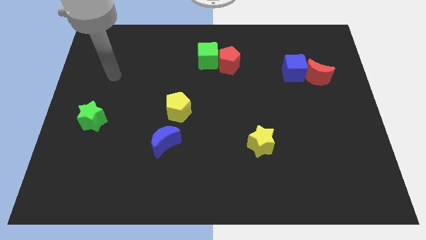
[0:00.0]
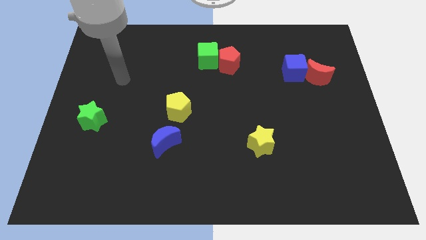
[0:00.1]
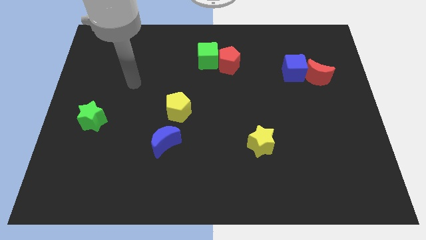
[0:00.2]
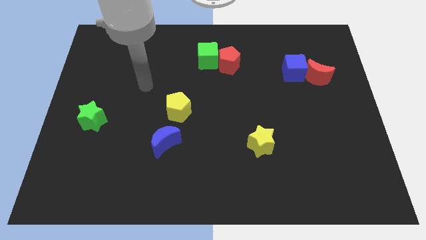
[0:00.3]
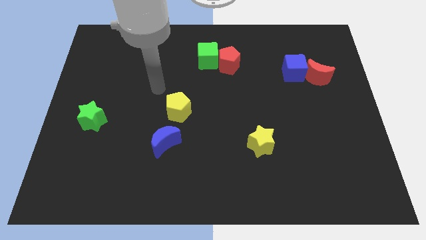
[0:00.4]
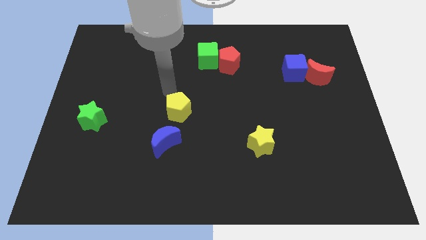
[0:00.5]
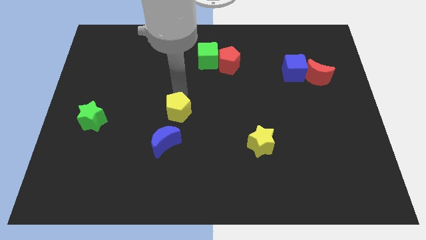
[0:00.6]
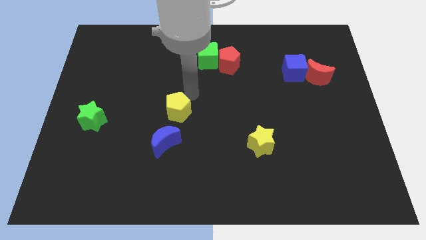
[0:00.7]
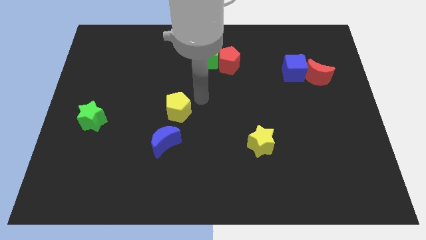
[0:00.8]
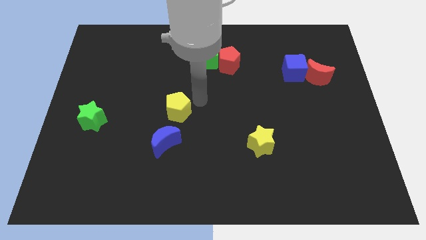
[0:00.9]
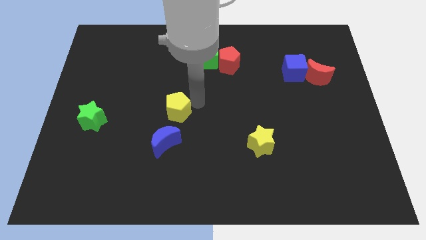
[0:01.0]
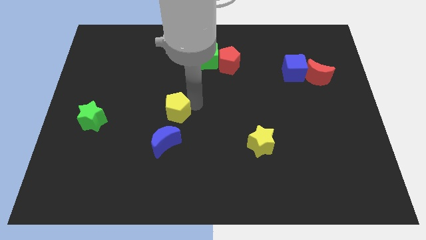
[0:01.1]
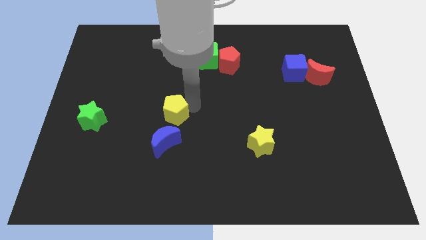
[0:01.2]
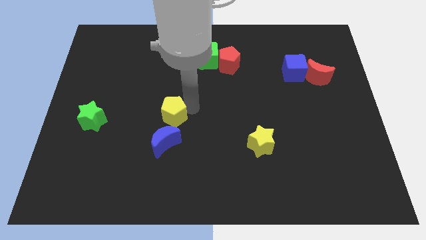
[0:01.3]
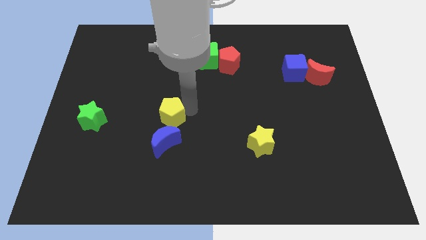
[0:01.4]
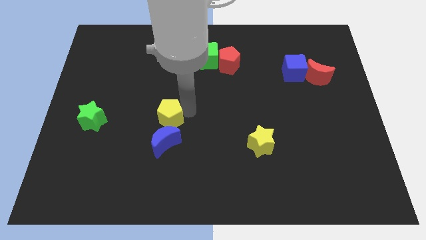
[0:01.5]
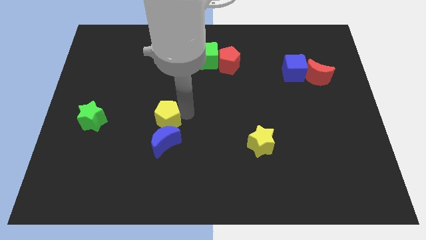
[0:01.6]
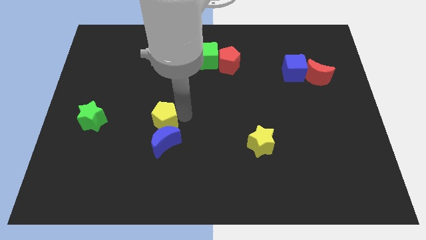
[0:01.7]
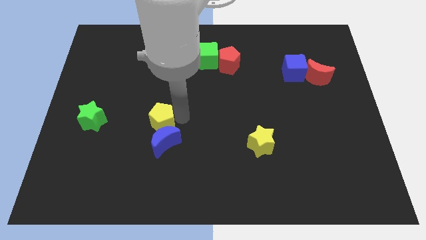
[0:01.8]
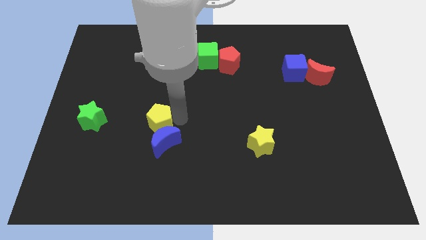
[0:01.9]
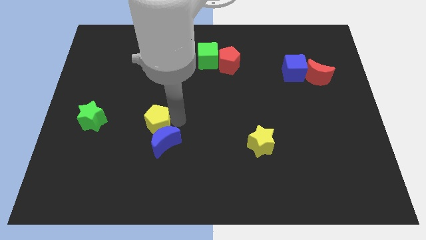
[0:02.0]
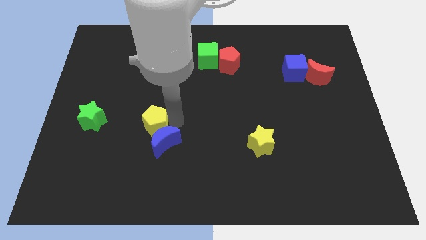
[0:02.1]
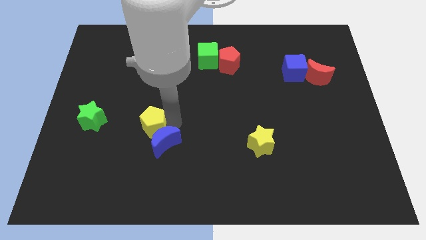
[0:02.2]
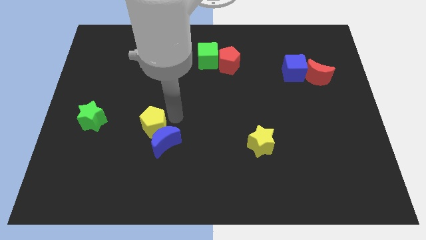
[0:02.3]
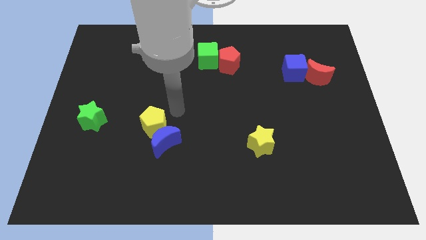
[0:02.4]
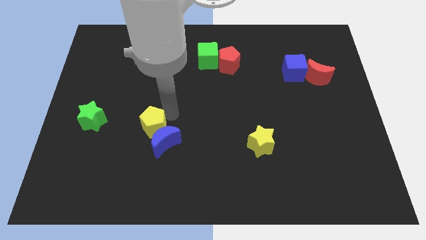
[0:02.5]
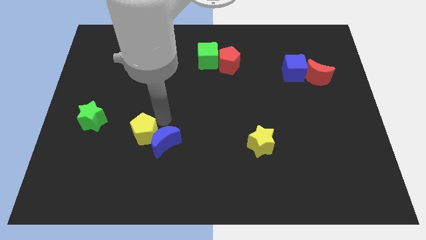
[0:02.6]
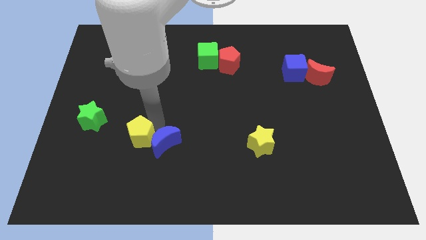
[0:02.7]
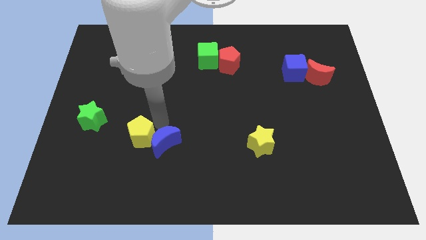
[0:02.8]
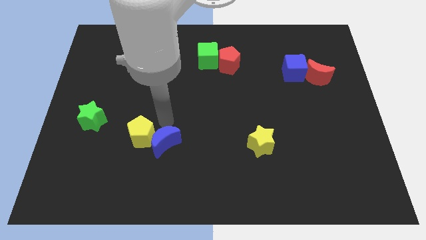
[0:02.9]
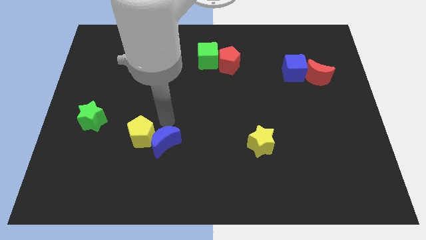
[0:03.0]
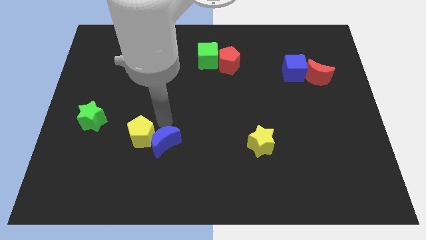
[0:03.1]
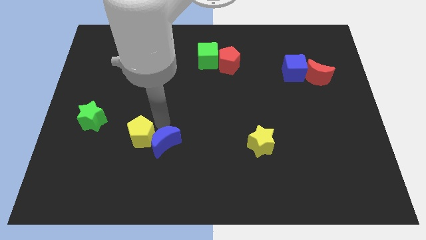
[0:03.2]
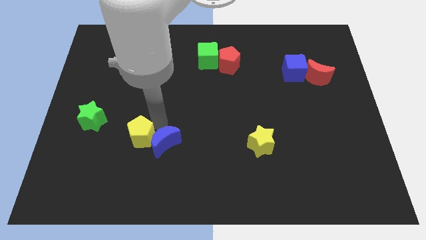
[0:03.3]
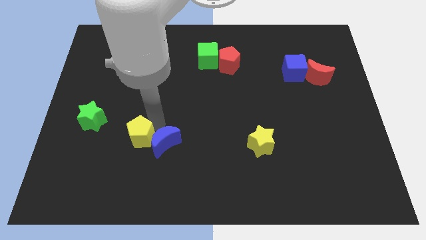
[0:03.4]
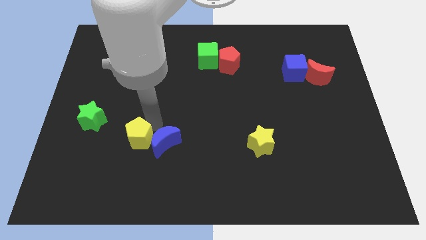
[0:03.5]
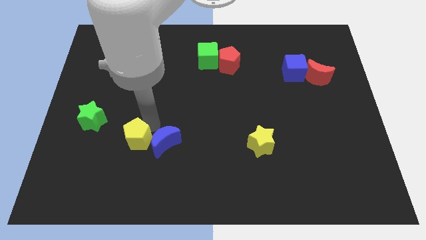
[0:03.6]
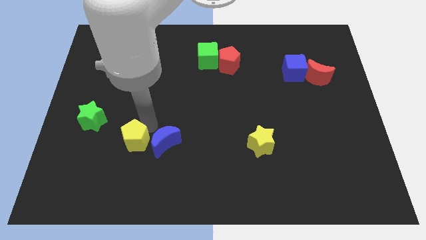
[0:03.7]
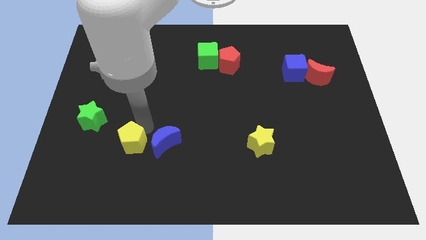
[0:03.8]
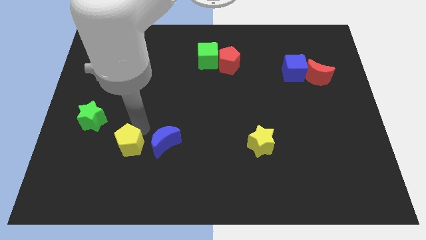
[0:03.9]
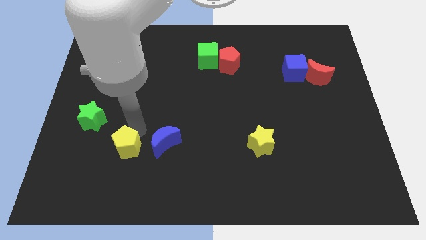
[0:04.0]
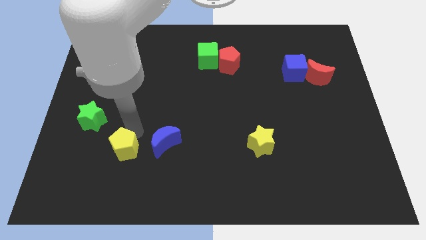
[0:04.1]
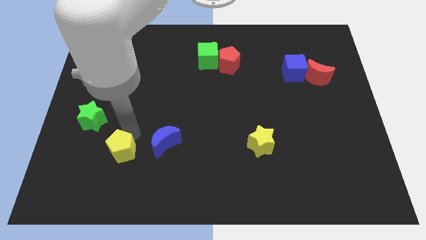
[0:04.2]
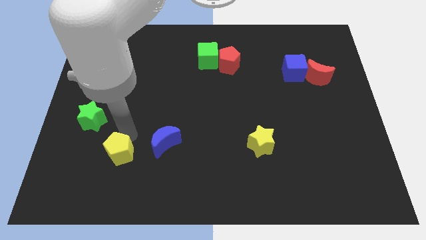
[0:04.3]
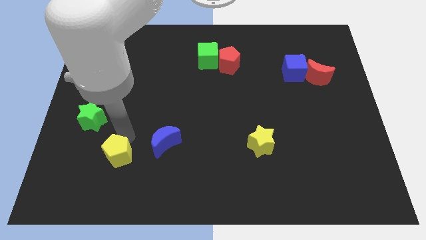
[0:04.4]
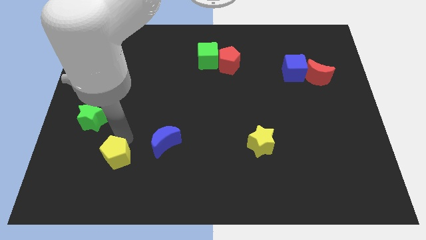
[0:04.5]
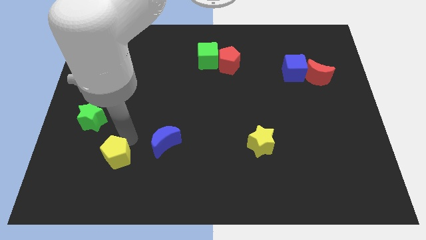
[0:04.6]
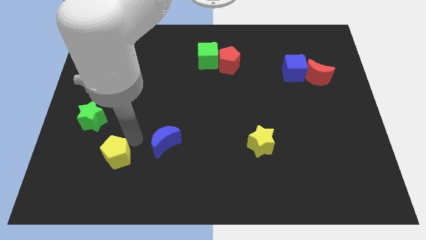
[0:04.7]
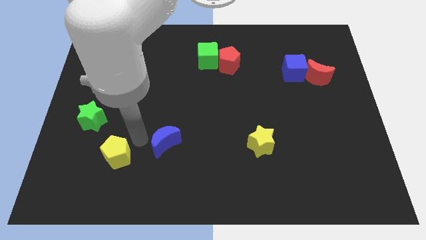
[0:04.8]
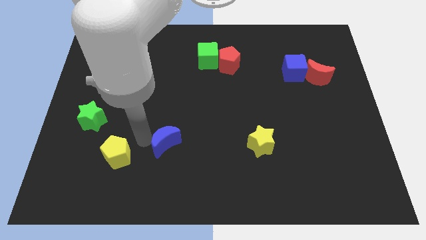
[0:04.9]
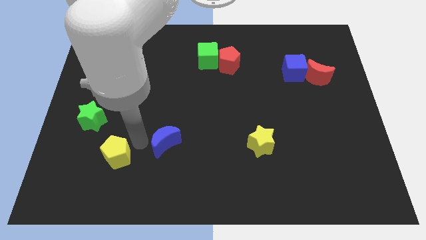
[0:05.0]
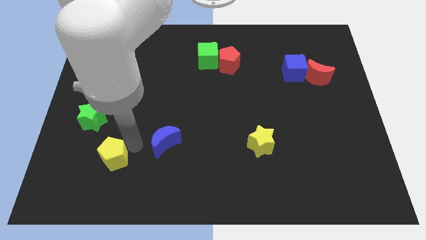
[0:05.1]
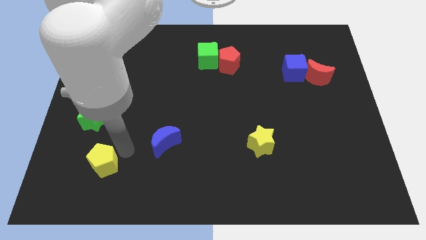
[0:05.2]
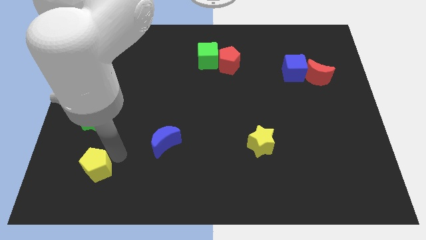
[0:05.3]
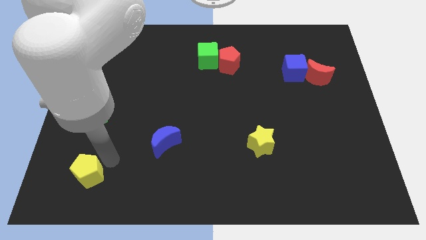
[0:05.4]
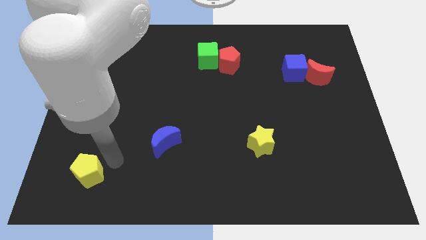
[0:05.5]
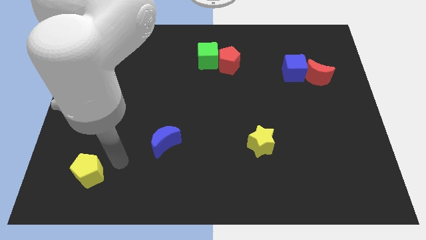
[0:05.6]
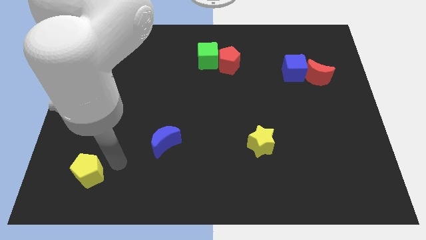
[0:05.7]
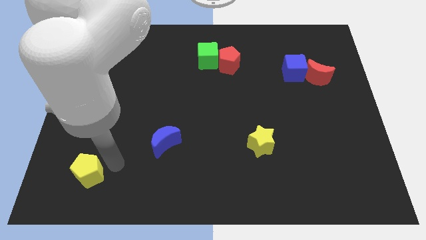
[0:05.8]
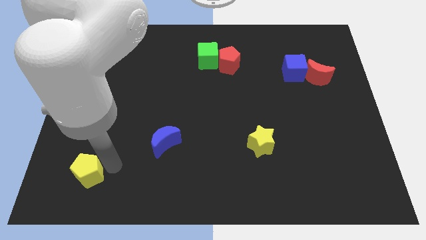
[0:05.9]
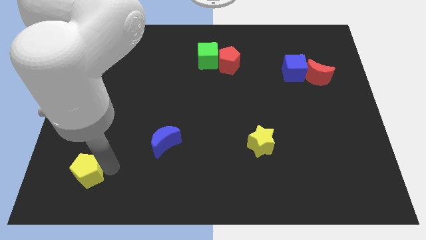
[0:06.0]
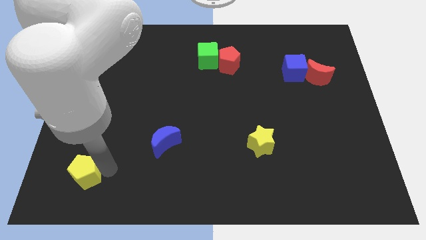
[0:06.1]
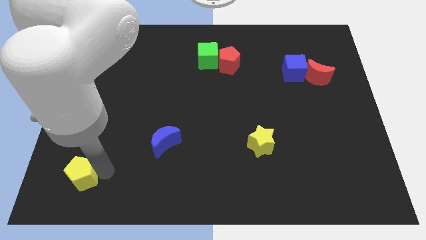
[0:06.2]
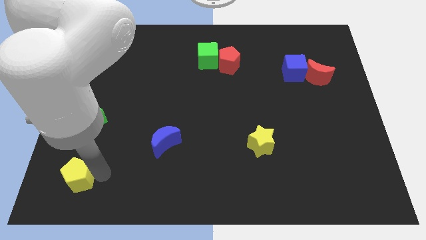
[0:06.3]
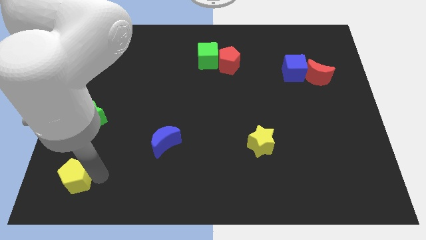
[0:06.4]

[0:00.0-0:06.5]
put the yellow pentagon to the bottom left corner
